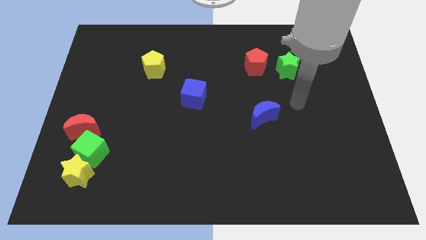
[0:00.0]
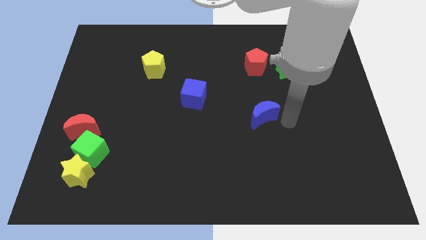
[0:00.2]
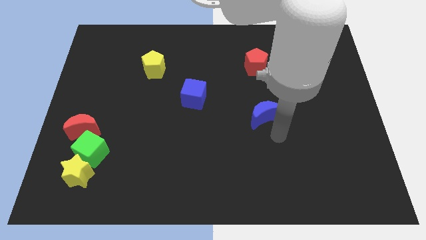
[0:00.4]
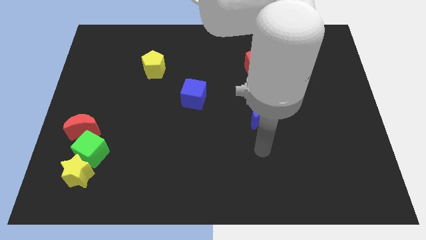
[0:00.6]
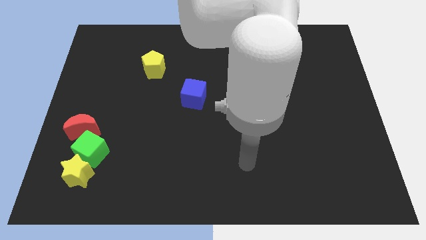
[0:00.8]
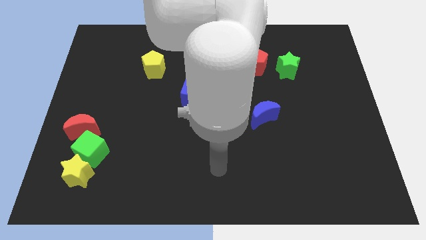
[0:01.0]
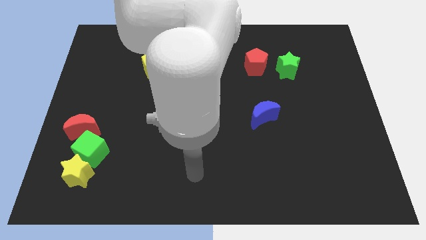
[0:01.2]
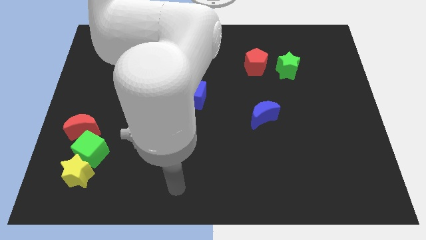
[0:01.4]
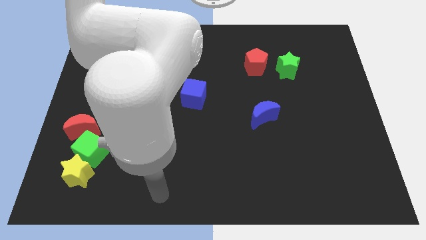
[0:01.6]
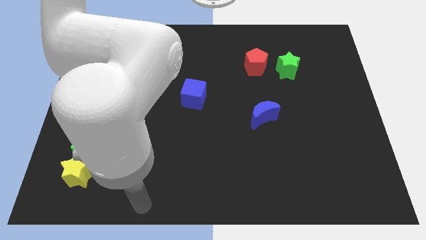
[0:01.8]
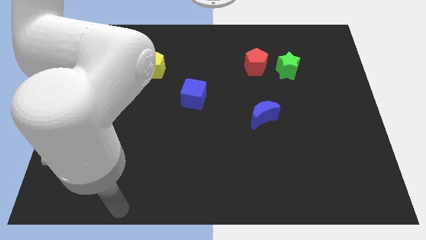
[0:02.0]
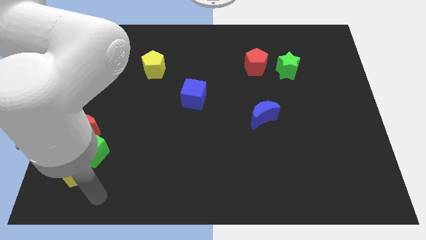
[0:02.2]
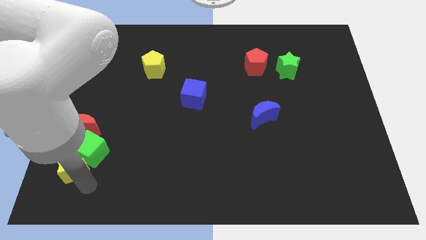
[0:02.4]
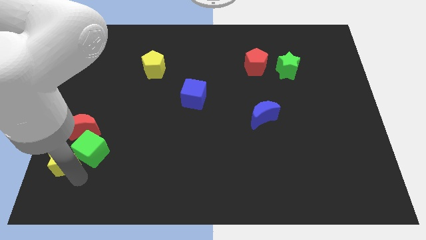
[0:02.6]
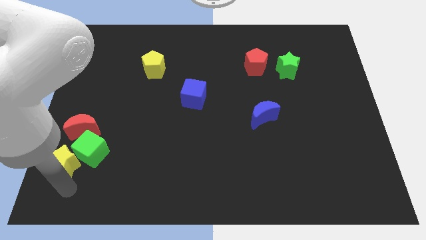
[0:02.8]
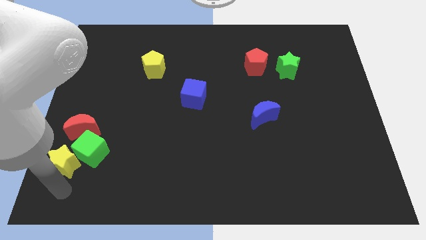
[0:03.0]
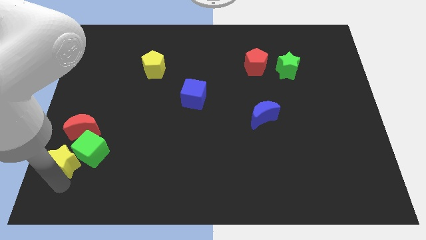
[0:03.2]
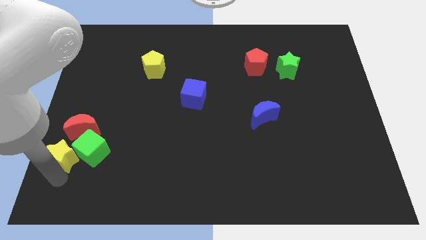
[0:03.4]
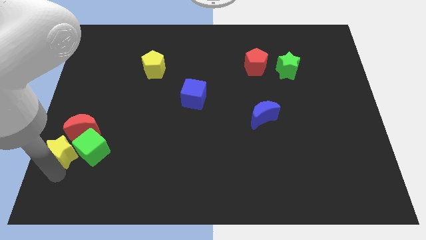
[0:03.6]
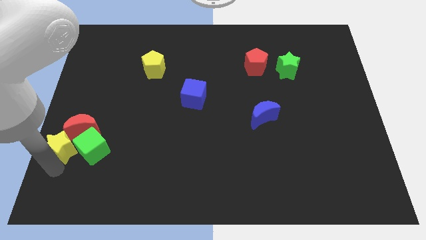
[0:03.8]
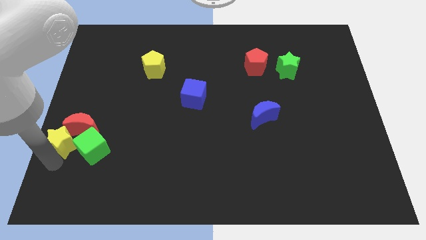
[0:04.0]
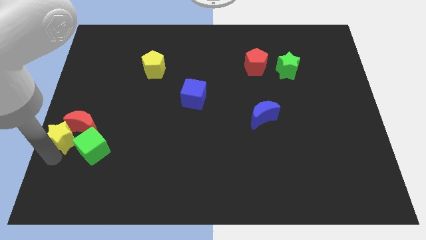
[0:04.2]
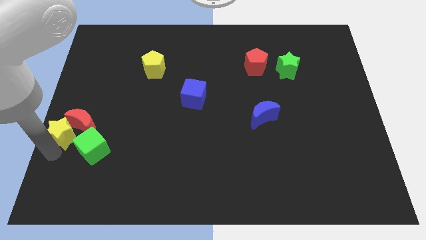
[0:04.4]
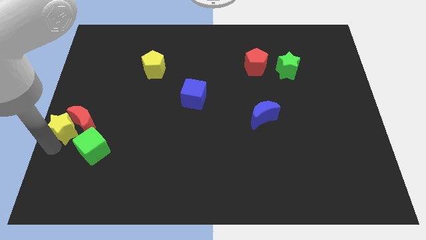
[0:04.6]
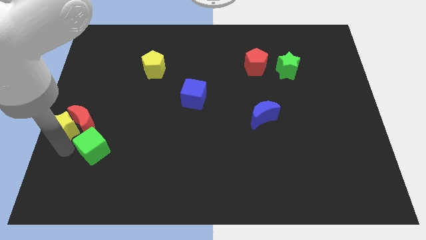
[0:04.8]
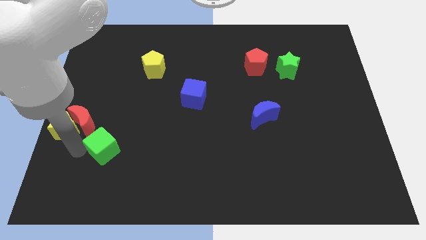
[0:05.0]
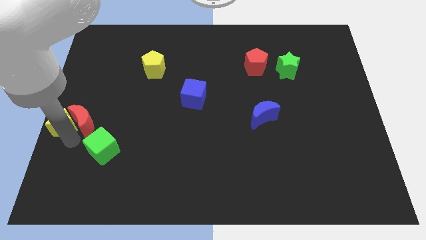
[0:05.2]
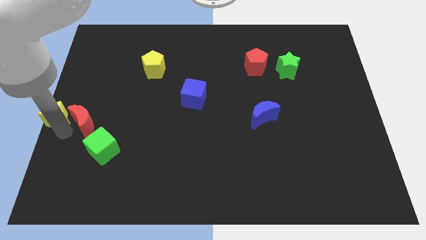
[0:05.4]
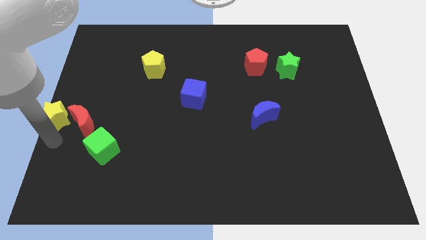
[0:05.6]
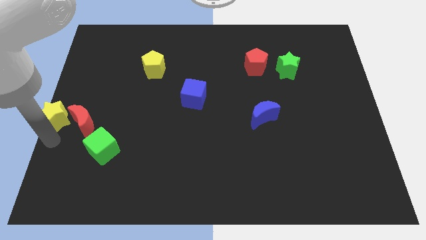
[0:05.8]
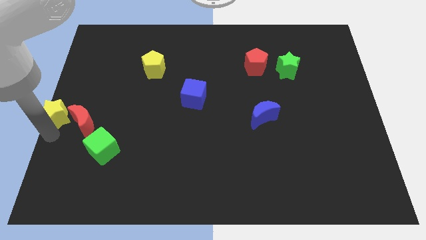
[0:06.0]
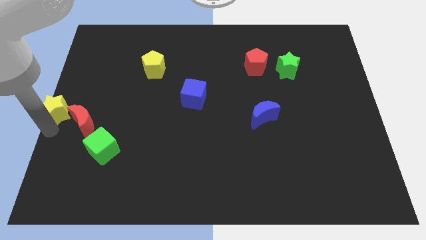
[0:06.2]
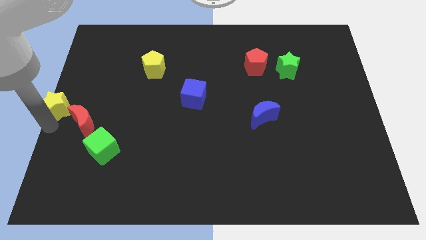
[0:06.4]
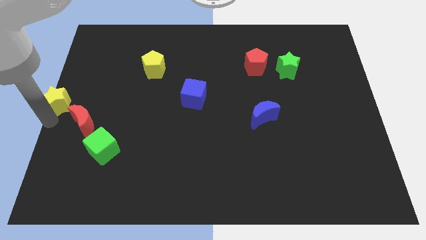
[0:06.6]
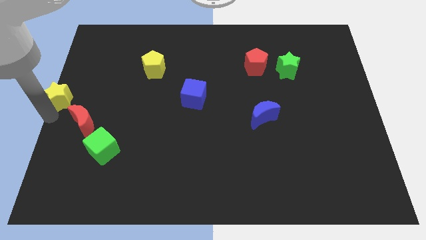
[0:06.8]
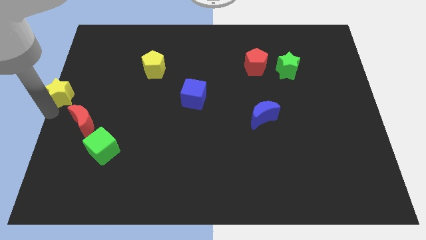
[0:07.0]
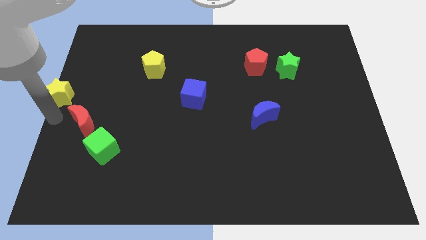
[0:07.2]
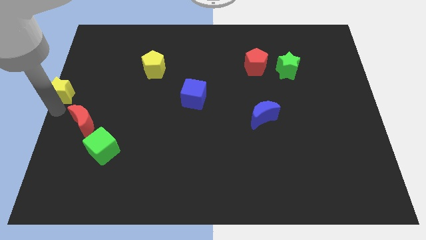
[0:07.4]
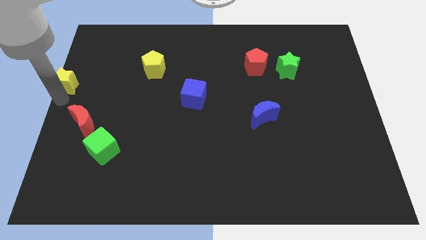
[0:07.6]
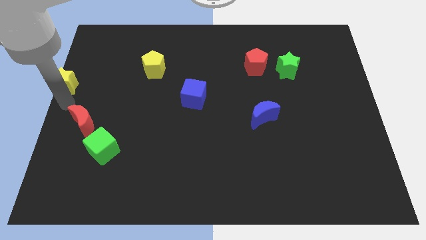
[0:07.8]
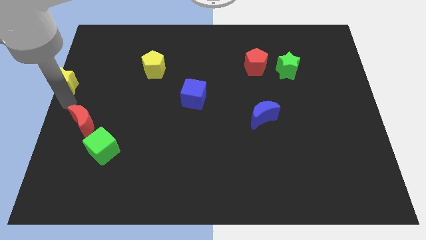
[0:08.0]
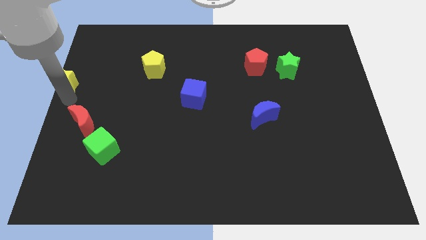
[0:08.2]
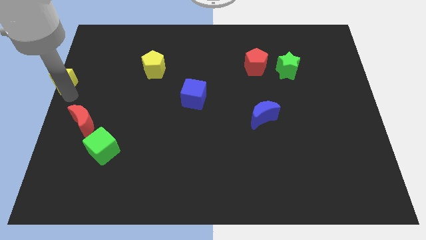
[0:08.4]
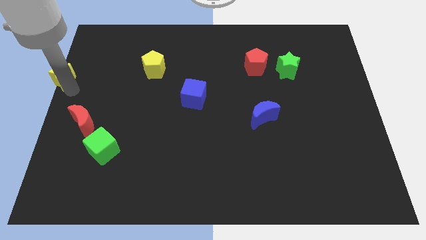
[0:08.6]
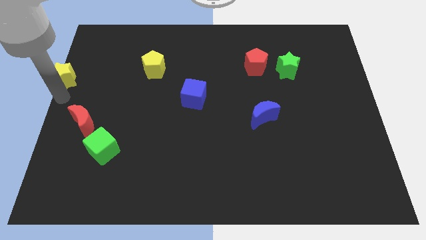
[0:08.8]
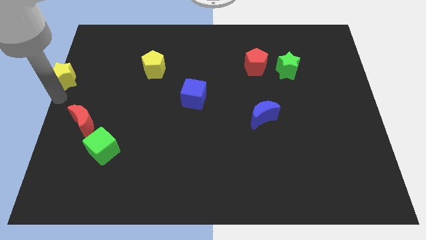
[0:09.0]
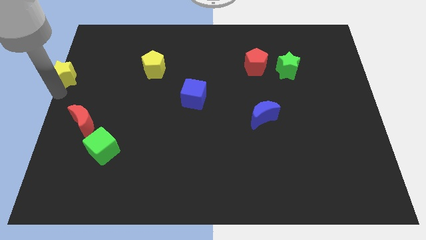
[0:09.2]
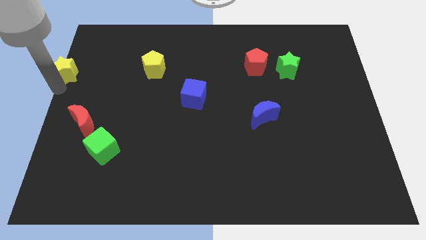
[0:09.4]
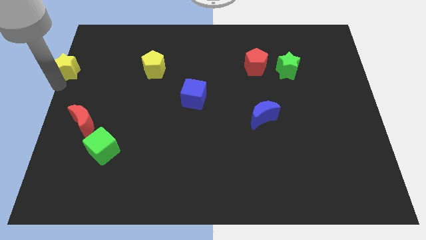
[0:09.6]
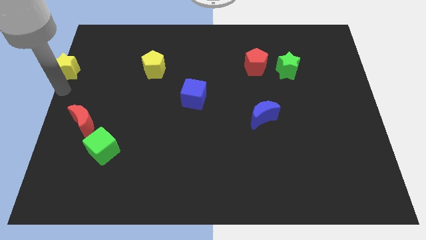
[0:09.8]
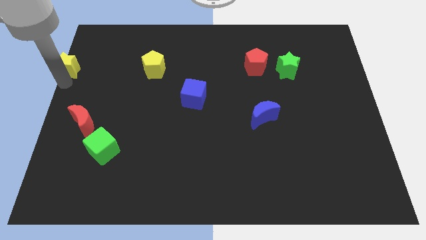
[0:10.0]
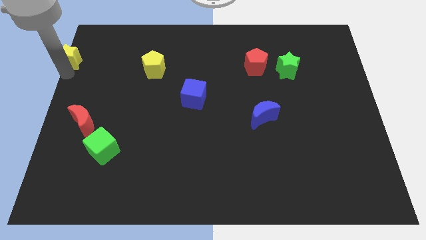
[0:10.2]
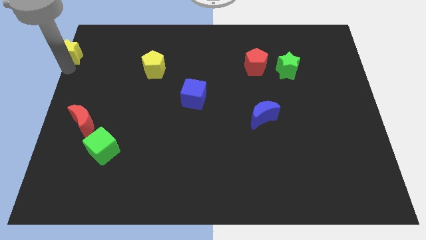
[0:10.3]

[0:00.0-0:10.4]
move the yellow star to the upper left corner

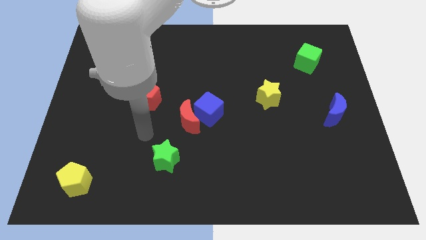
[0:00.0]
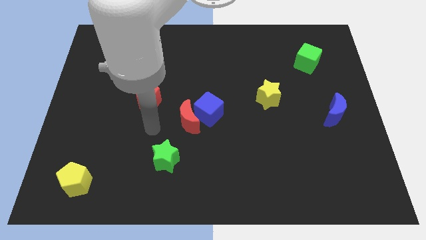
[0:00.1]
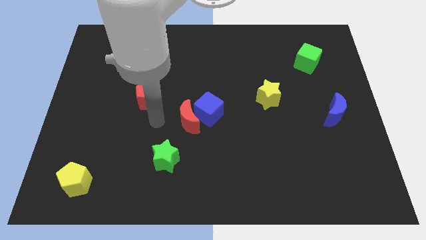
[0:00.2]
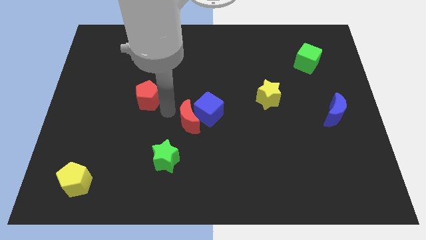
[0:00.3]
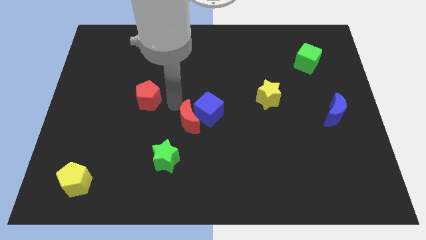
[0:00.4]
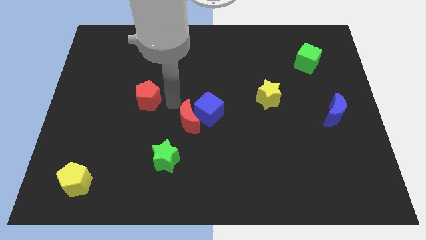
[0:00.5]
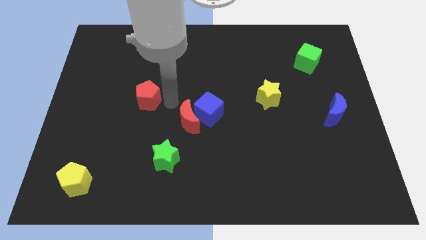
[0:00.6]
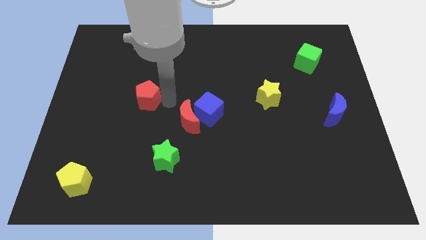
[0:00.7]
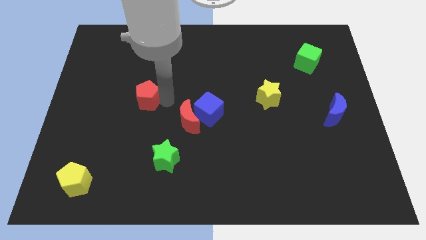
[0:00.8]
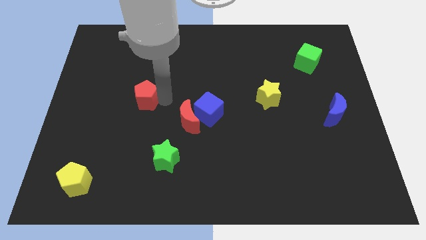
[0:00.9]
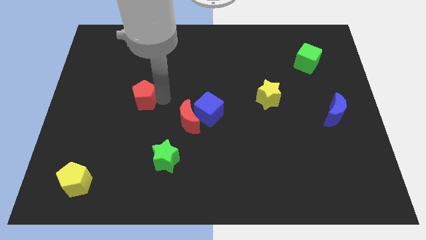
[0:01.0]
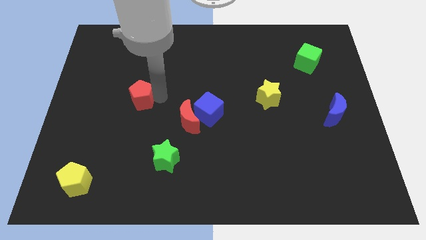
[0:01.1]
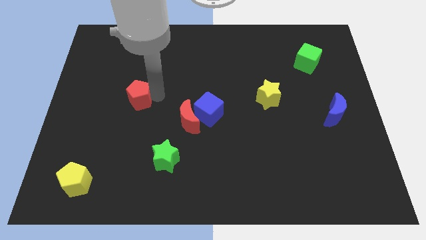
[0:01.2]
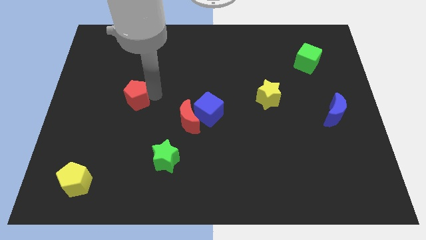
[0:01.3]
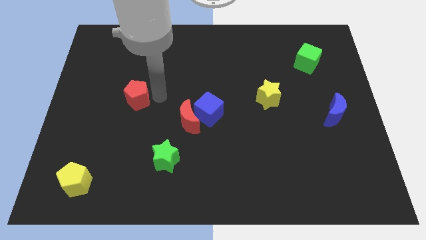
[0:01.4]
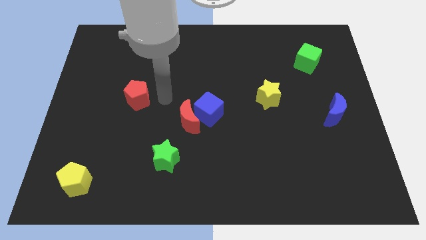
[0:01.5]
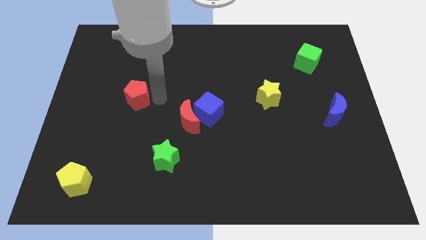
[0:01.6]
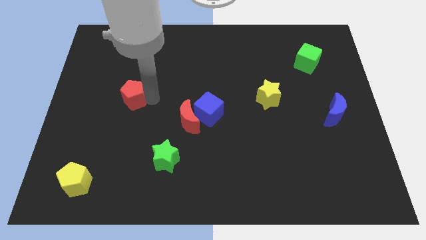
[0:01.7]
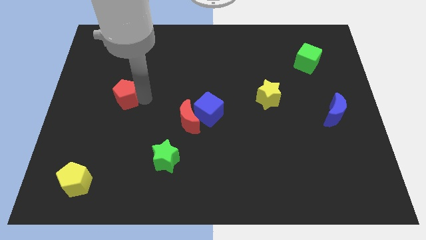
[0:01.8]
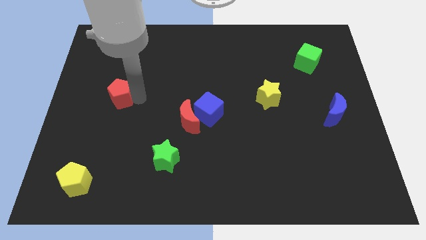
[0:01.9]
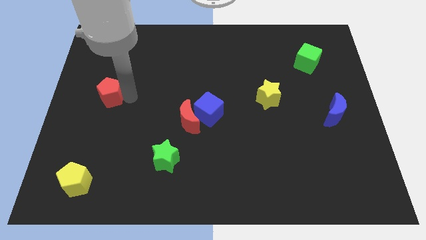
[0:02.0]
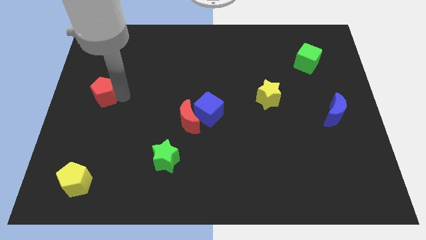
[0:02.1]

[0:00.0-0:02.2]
move the red pentagon to the left side of the board
